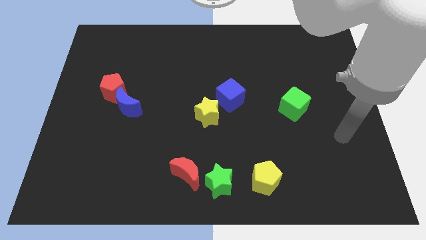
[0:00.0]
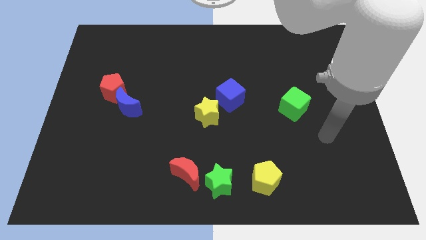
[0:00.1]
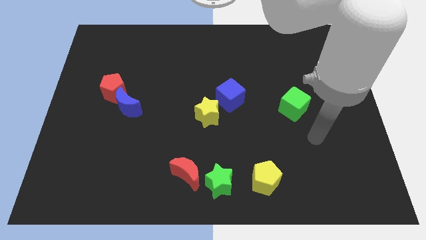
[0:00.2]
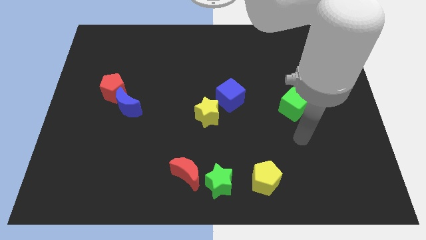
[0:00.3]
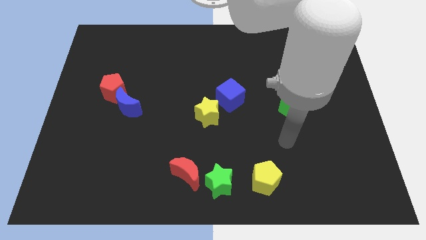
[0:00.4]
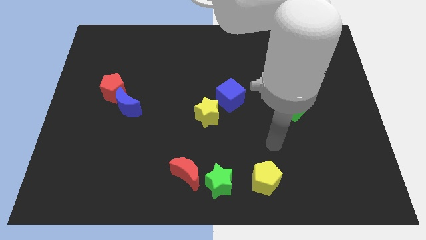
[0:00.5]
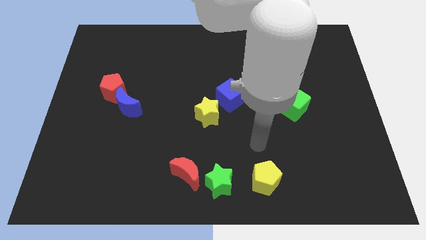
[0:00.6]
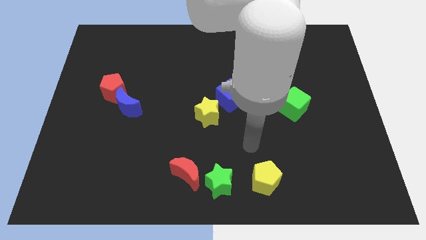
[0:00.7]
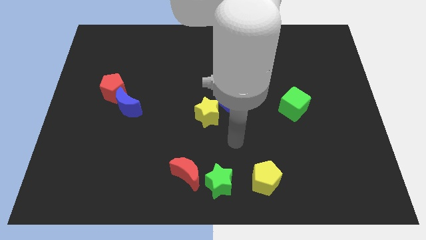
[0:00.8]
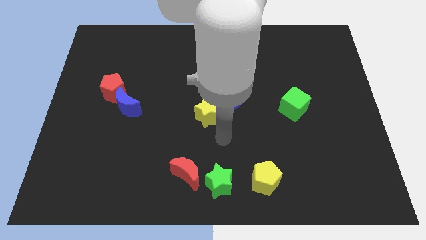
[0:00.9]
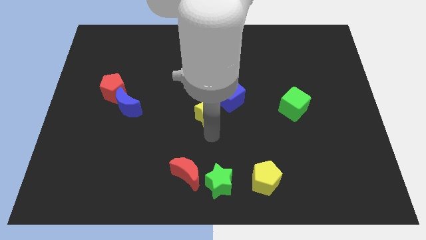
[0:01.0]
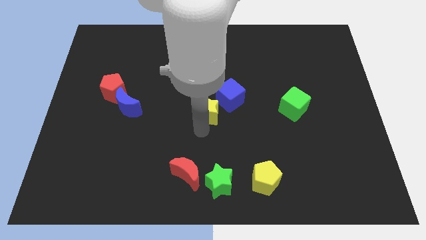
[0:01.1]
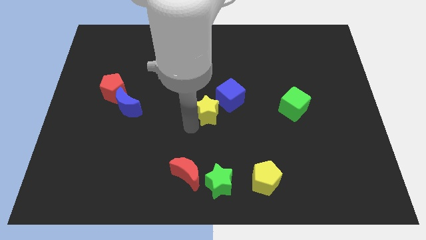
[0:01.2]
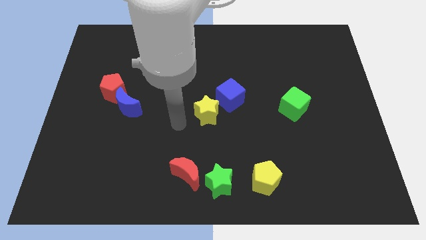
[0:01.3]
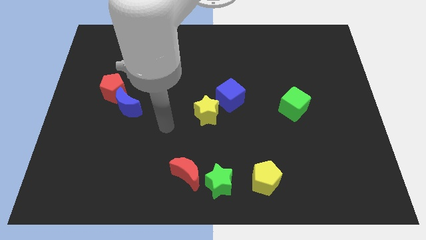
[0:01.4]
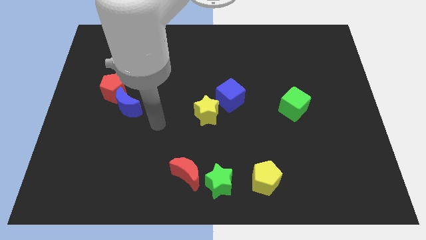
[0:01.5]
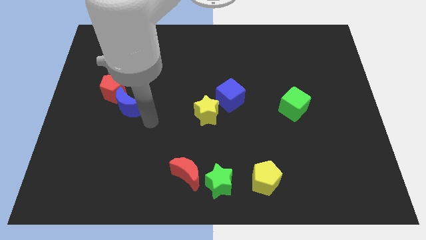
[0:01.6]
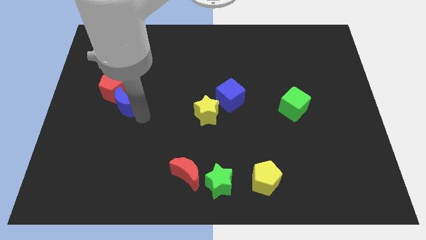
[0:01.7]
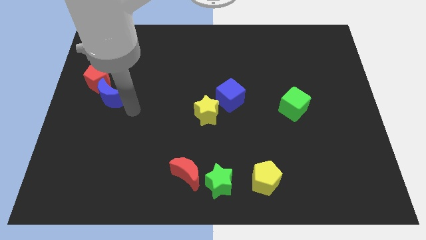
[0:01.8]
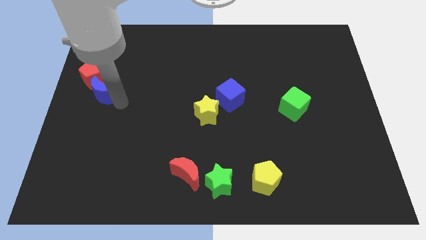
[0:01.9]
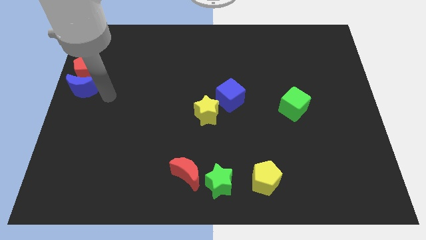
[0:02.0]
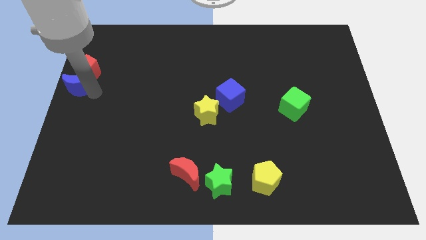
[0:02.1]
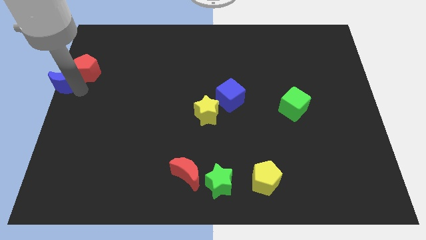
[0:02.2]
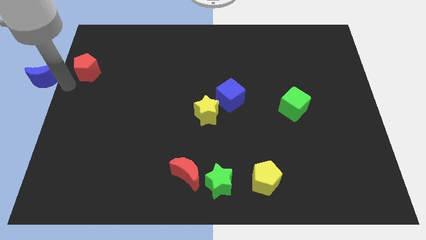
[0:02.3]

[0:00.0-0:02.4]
pull the red pentagon apart from the blue moon

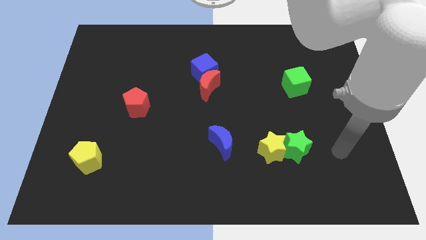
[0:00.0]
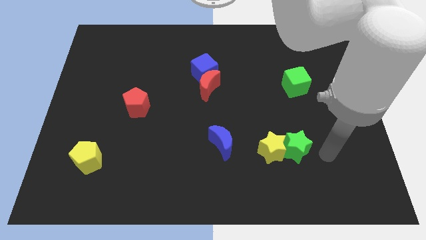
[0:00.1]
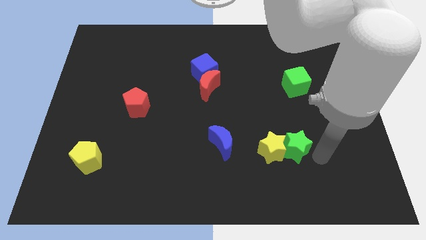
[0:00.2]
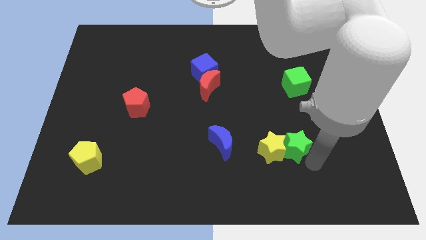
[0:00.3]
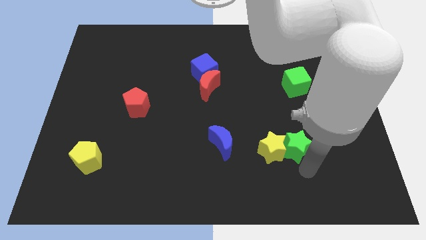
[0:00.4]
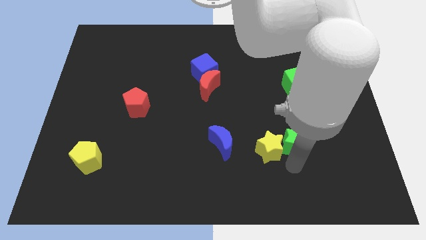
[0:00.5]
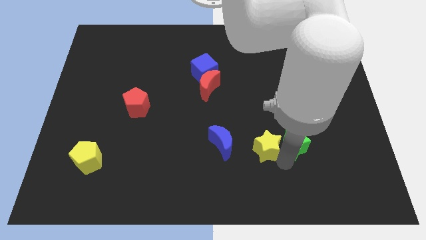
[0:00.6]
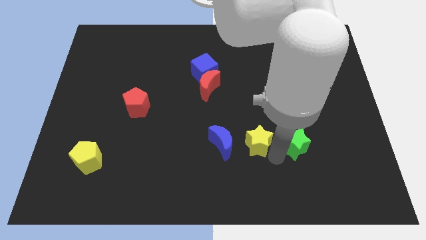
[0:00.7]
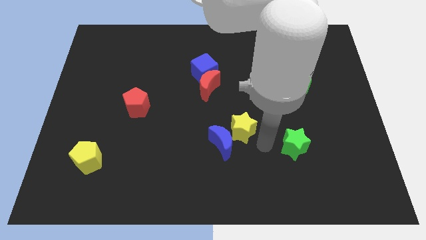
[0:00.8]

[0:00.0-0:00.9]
move the green star away from the yellow star

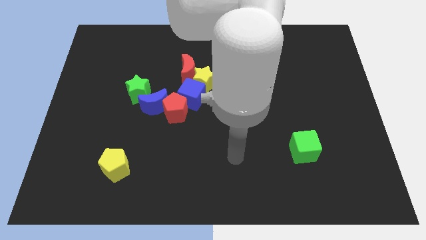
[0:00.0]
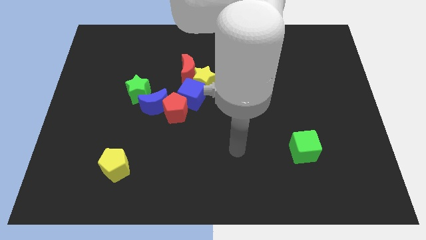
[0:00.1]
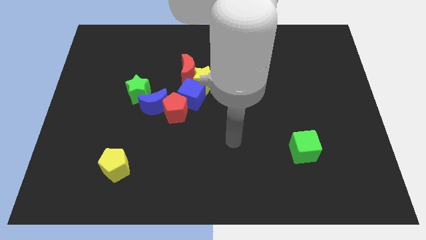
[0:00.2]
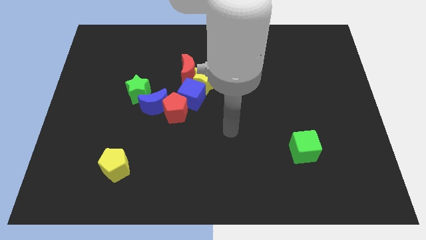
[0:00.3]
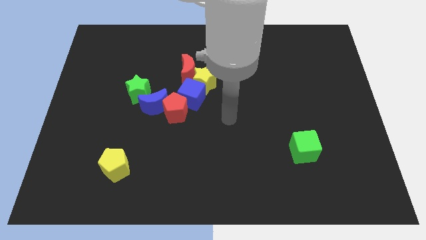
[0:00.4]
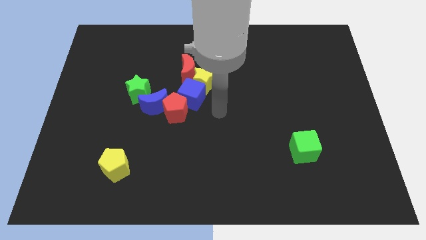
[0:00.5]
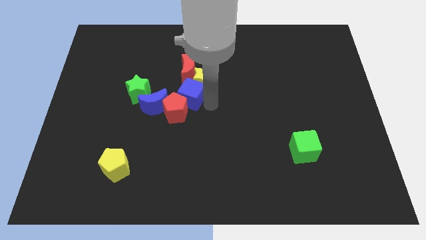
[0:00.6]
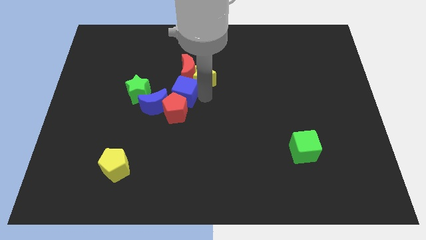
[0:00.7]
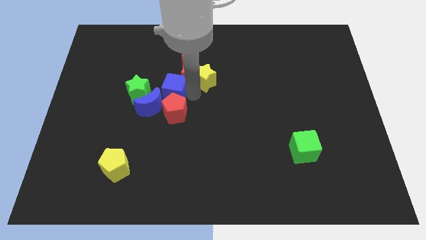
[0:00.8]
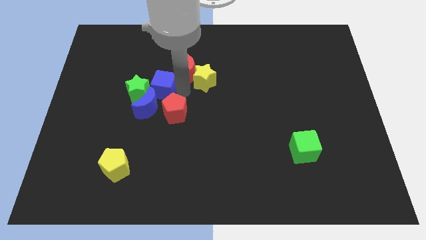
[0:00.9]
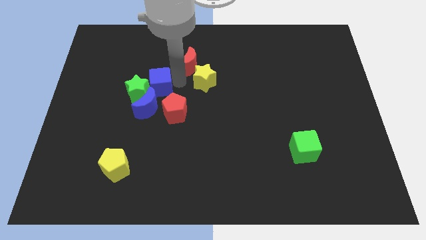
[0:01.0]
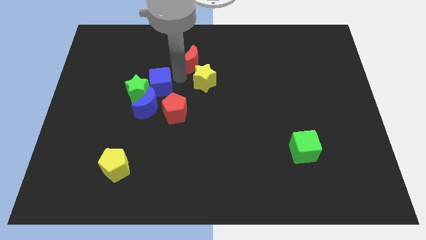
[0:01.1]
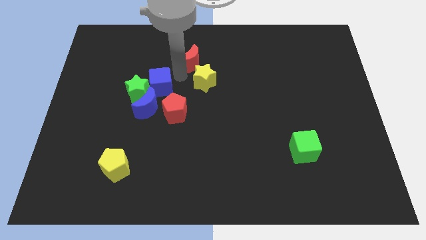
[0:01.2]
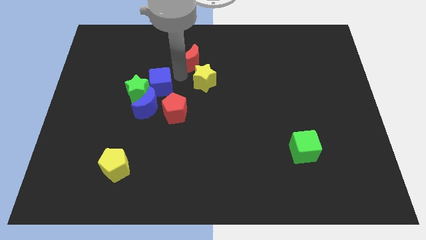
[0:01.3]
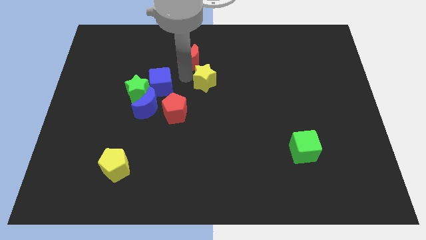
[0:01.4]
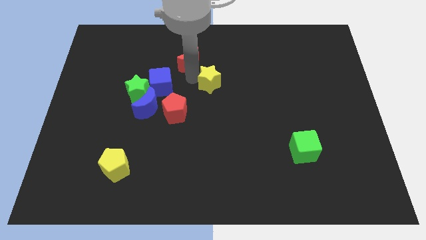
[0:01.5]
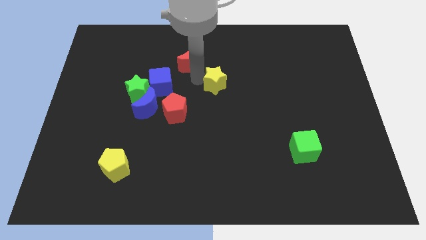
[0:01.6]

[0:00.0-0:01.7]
separate the yellow star from the red moon and blue cube

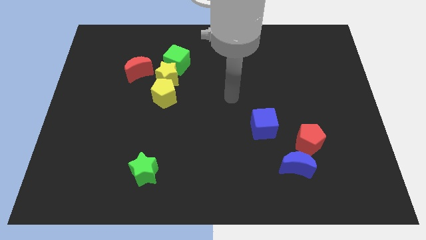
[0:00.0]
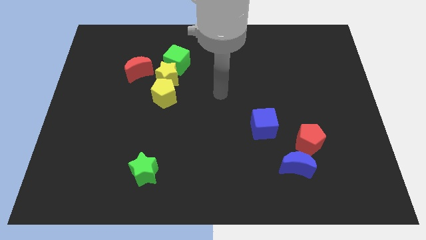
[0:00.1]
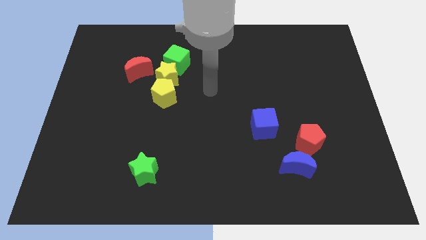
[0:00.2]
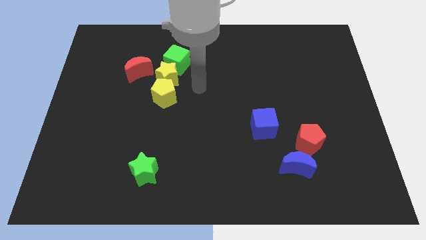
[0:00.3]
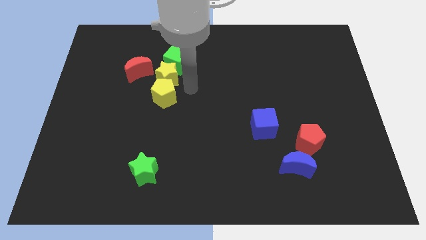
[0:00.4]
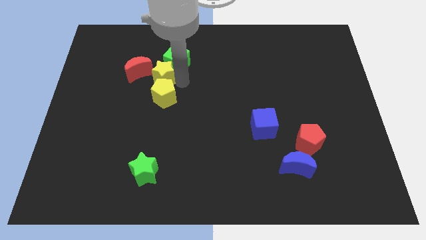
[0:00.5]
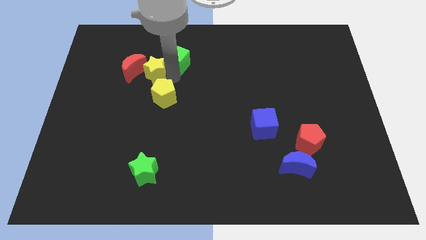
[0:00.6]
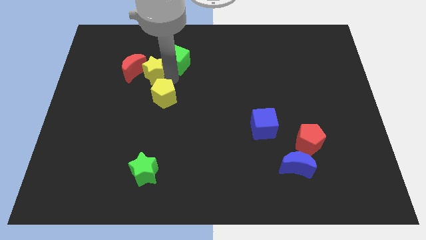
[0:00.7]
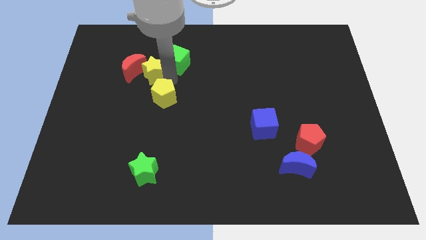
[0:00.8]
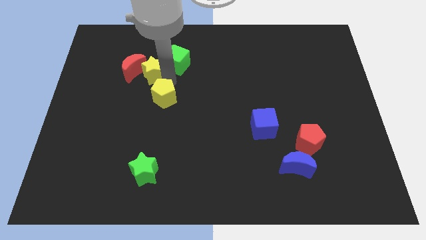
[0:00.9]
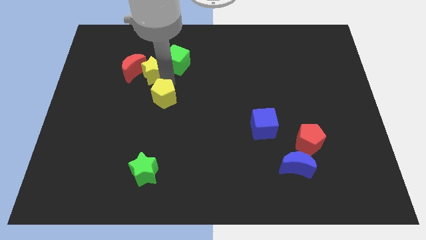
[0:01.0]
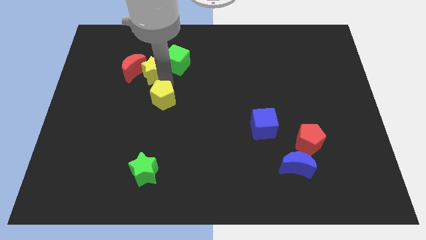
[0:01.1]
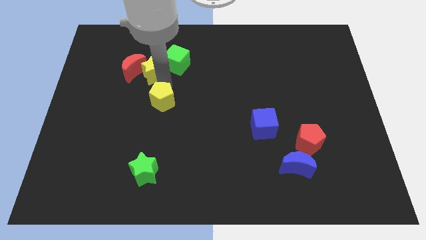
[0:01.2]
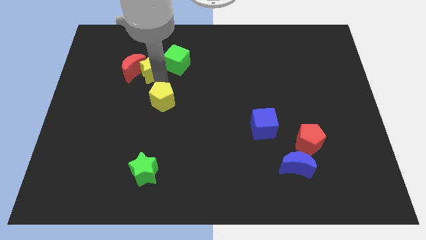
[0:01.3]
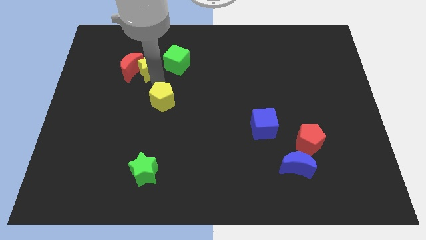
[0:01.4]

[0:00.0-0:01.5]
move the yellow pentagon away from the yellow star

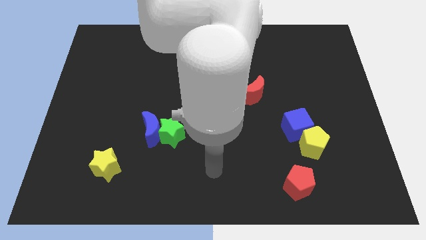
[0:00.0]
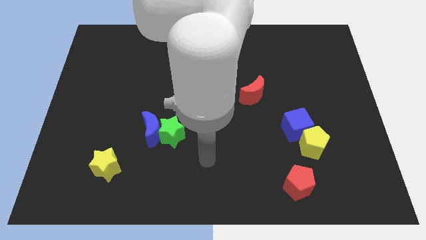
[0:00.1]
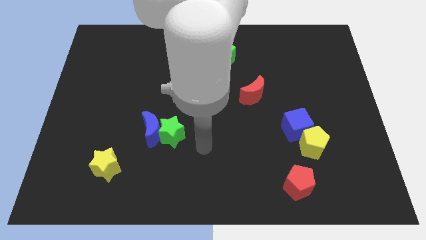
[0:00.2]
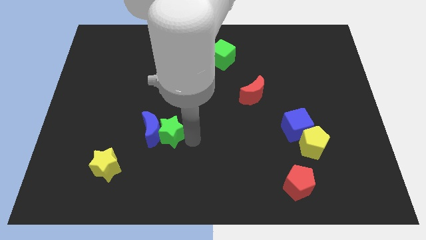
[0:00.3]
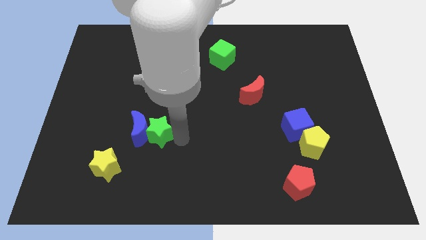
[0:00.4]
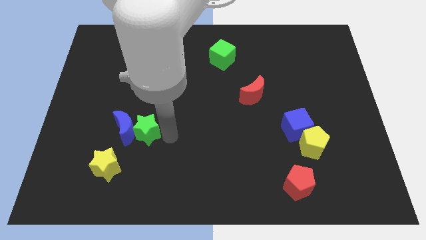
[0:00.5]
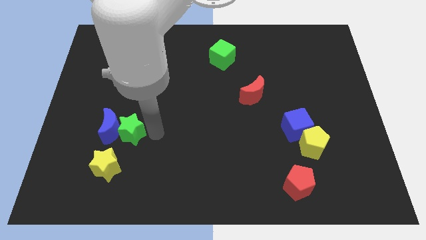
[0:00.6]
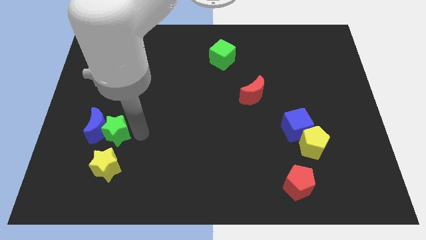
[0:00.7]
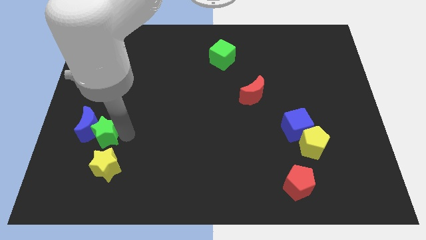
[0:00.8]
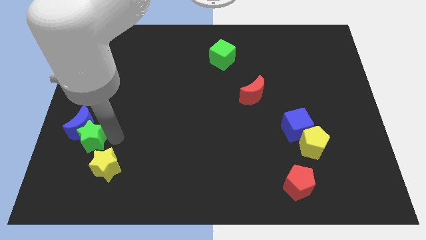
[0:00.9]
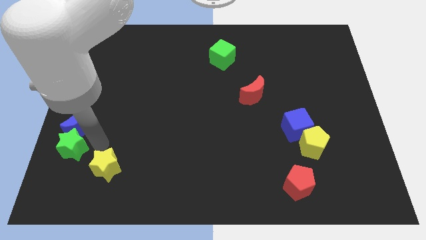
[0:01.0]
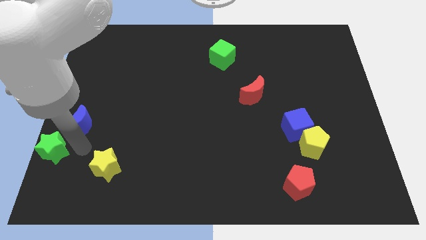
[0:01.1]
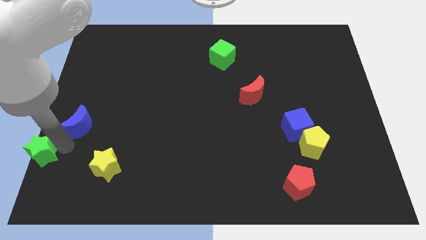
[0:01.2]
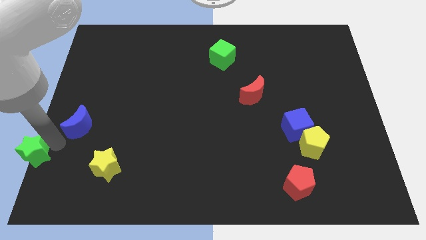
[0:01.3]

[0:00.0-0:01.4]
pull the blue moon apart from the green star

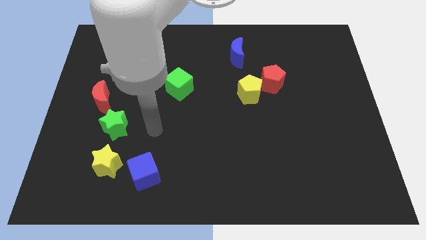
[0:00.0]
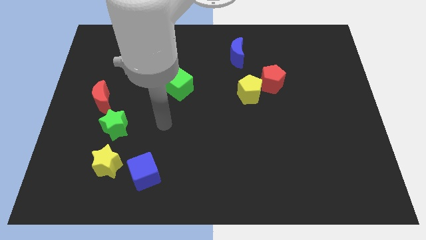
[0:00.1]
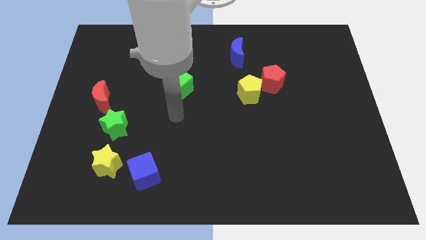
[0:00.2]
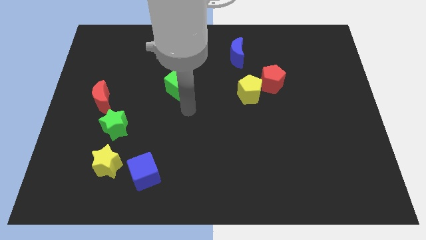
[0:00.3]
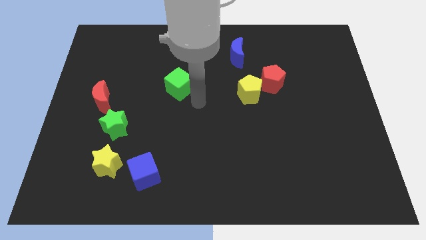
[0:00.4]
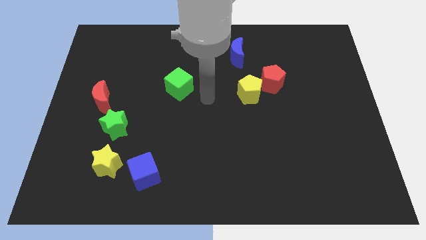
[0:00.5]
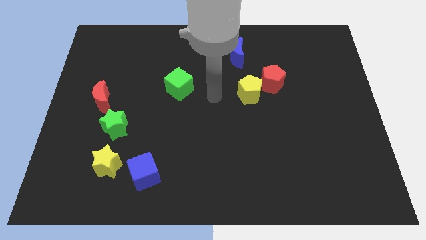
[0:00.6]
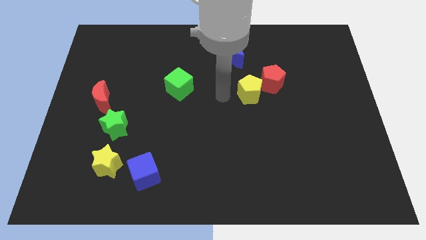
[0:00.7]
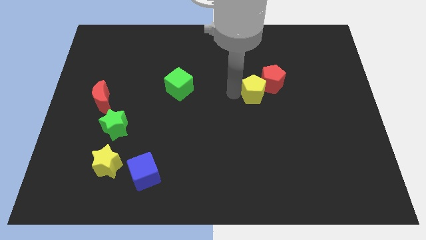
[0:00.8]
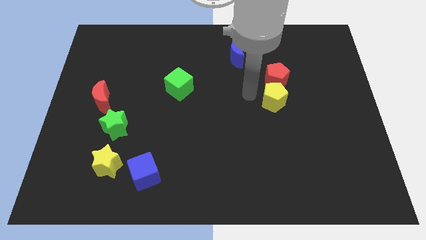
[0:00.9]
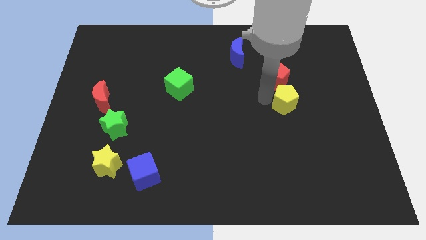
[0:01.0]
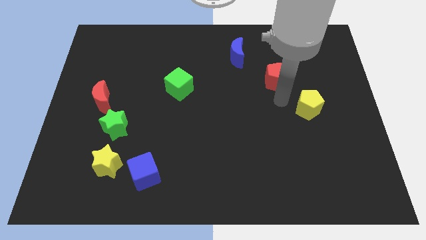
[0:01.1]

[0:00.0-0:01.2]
move the red pentagon away from the yellow pentagon
